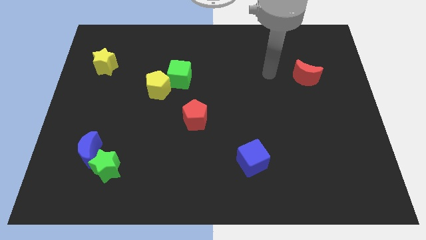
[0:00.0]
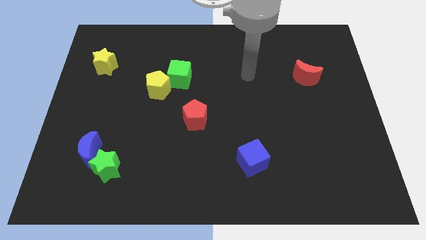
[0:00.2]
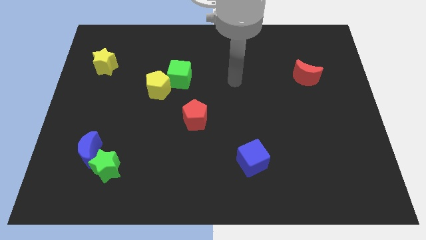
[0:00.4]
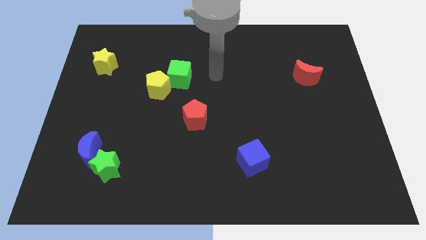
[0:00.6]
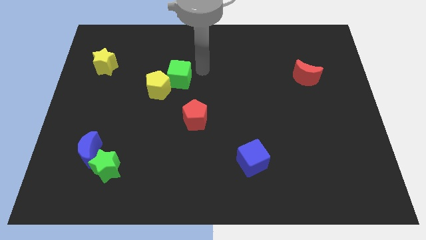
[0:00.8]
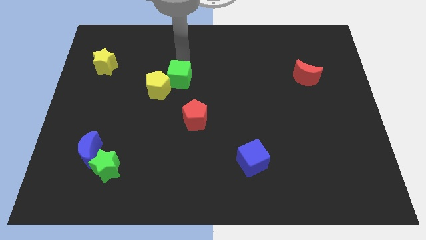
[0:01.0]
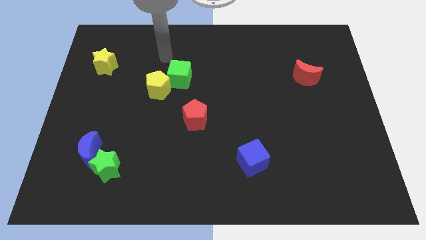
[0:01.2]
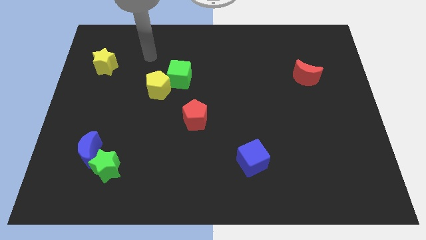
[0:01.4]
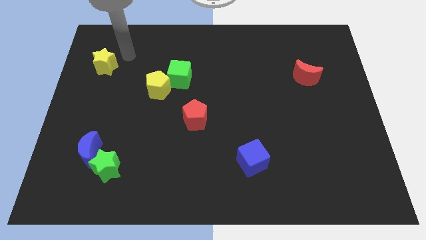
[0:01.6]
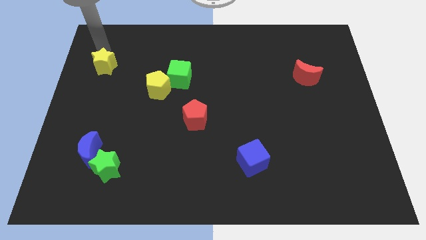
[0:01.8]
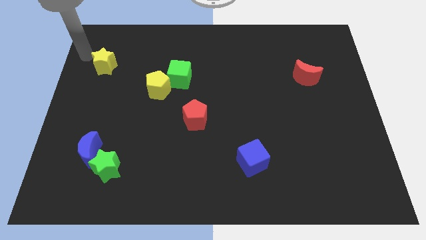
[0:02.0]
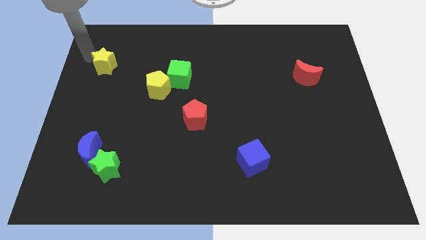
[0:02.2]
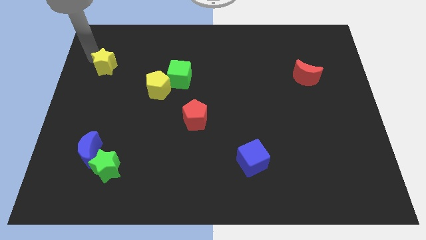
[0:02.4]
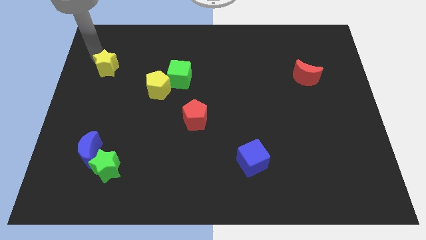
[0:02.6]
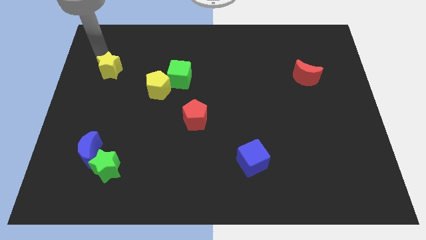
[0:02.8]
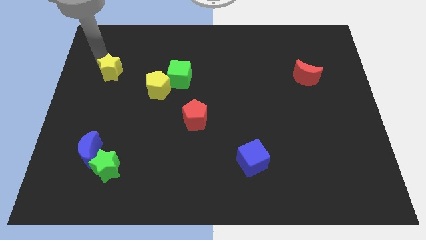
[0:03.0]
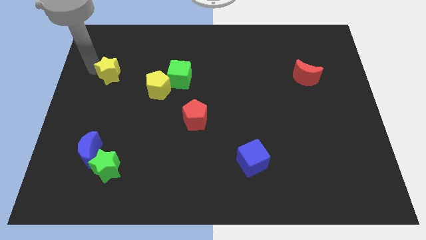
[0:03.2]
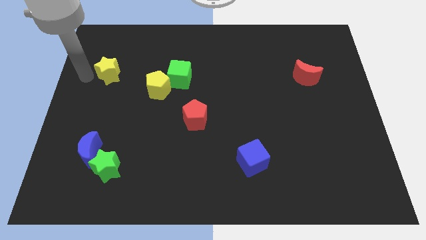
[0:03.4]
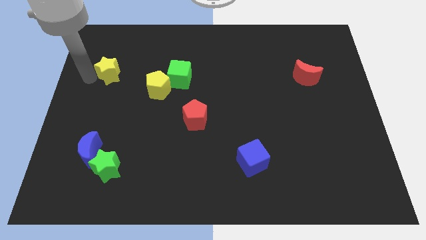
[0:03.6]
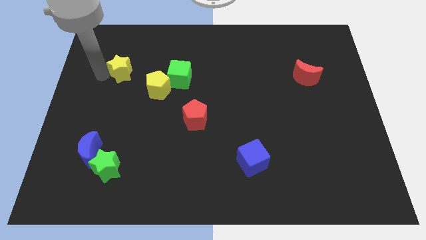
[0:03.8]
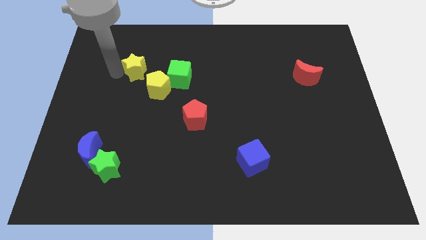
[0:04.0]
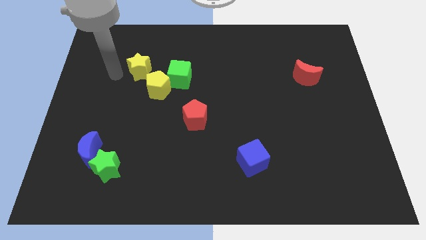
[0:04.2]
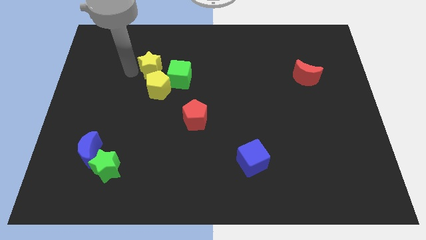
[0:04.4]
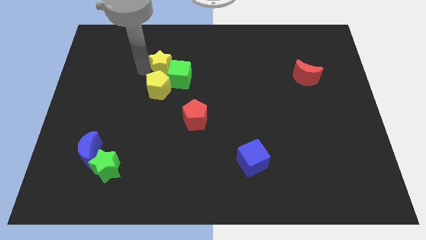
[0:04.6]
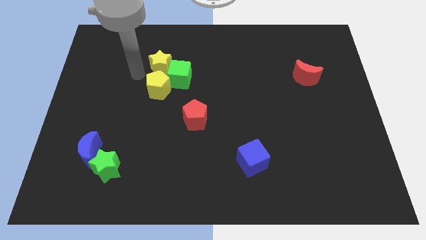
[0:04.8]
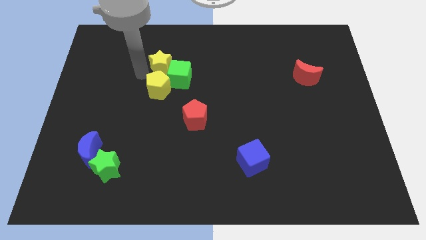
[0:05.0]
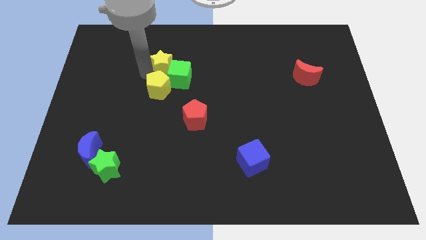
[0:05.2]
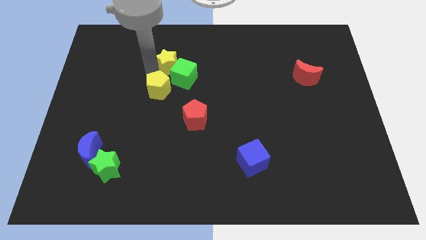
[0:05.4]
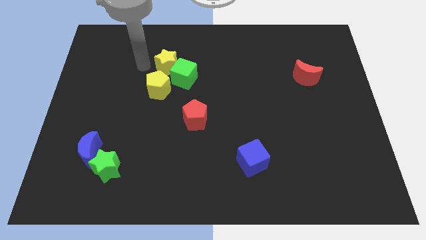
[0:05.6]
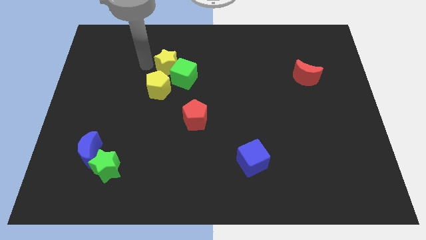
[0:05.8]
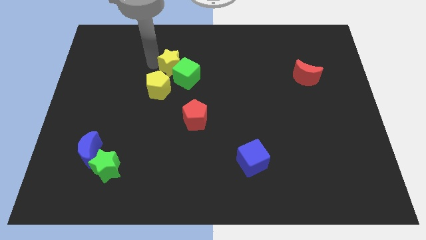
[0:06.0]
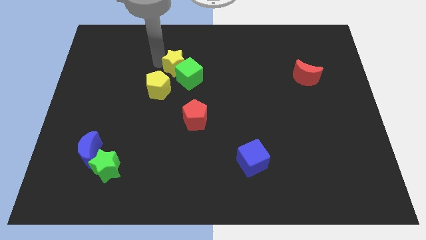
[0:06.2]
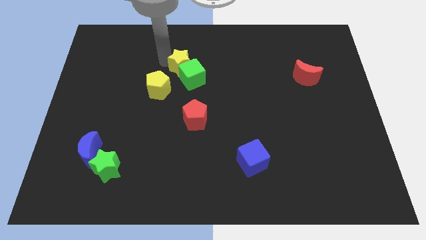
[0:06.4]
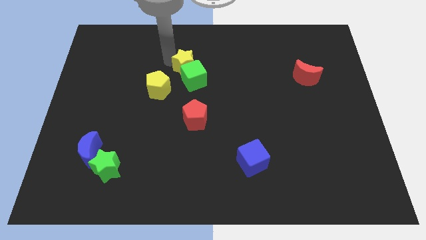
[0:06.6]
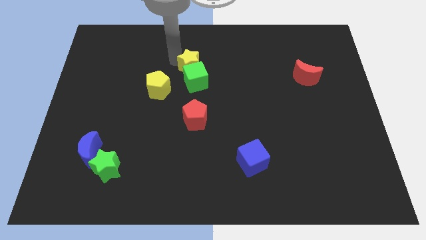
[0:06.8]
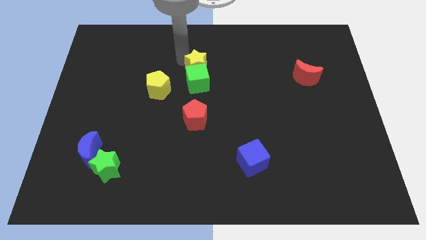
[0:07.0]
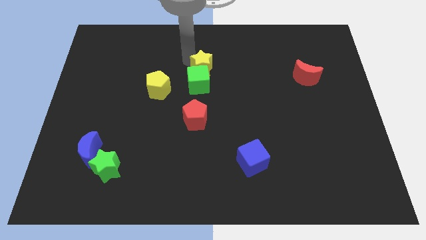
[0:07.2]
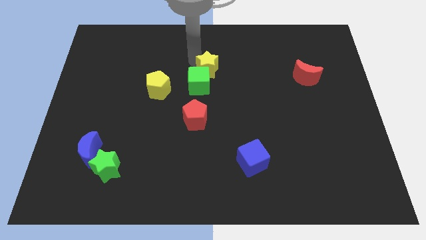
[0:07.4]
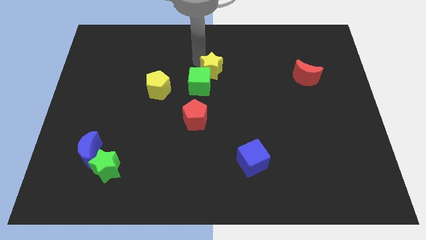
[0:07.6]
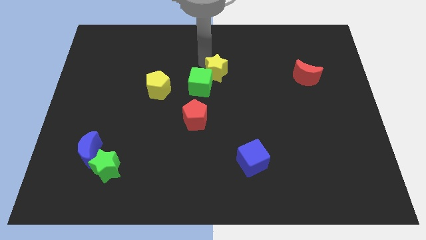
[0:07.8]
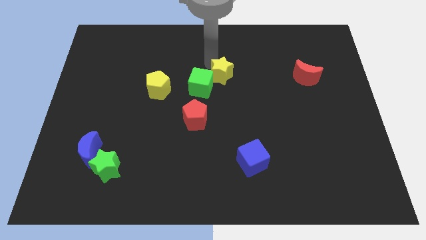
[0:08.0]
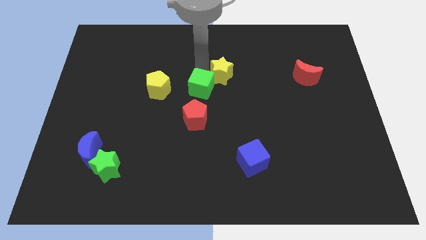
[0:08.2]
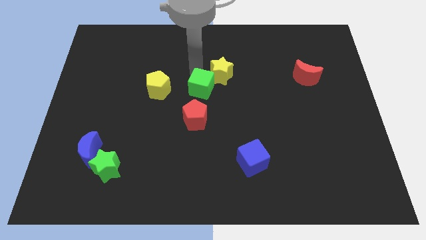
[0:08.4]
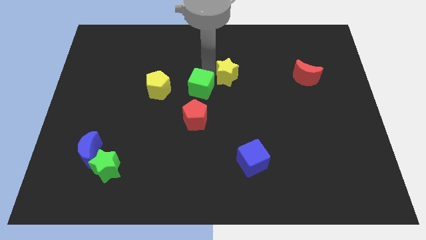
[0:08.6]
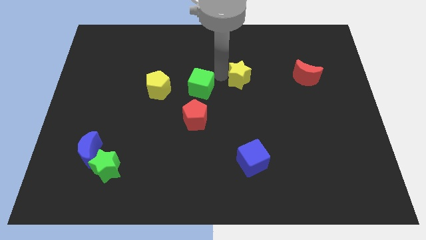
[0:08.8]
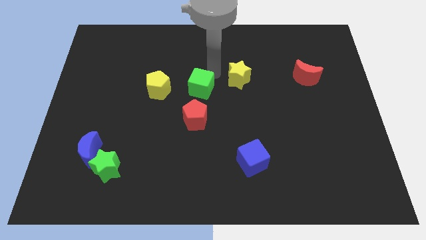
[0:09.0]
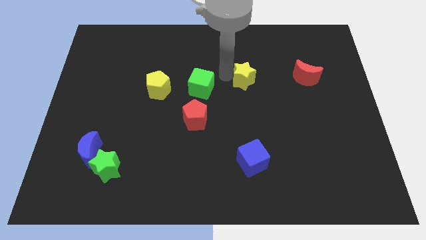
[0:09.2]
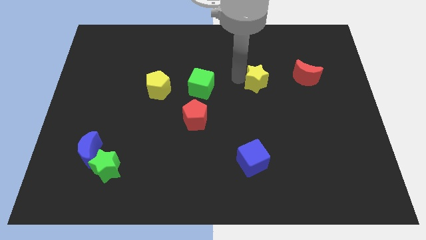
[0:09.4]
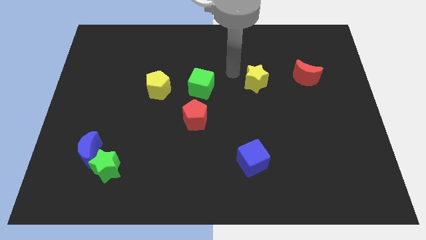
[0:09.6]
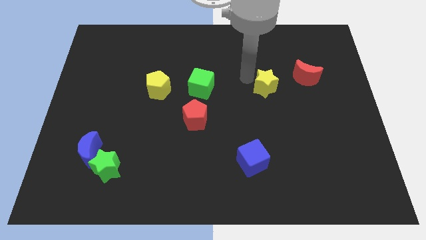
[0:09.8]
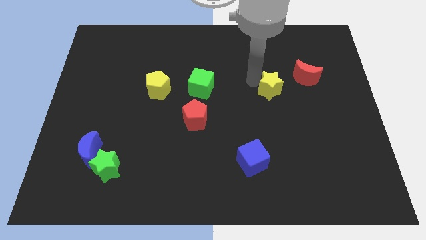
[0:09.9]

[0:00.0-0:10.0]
put the yellow star to the bottom left side of the red moon
